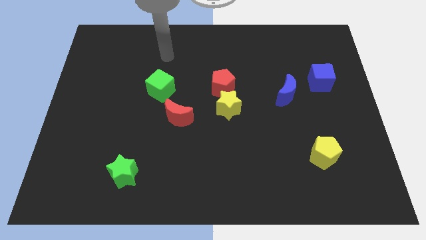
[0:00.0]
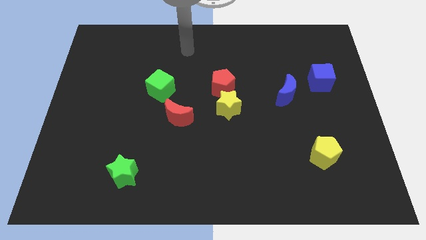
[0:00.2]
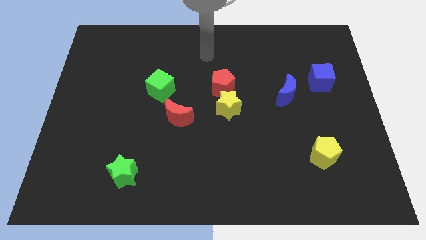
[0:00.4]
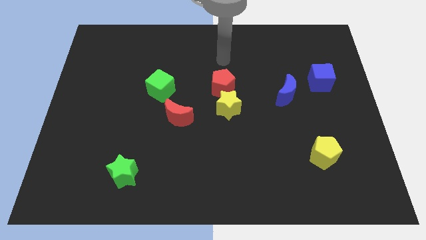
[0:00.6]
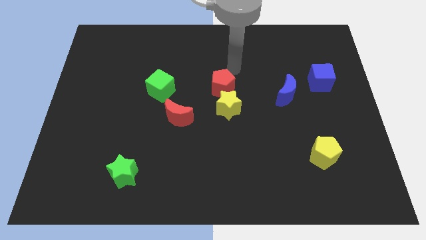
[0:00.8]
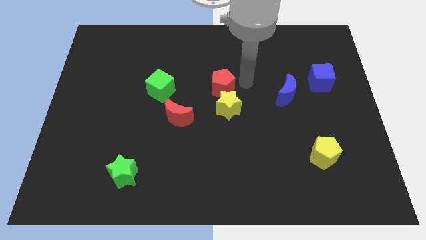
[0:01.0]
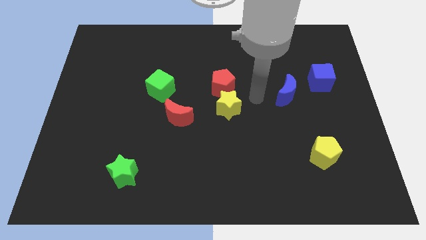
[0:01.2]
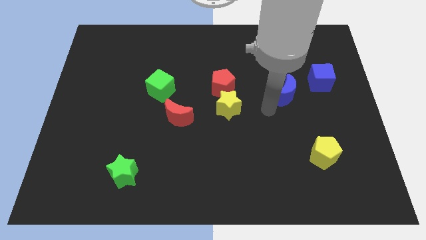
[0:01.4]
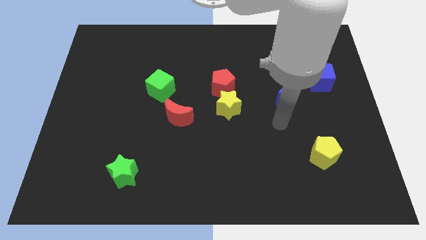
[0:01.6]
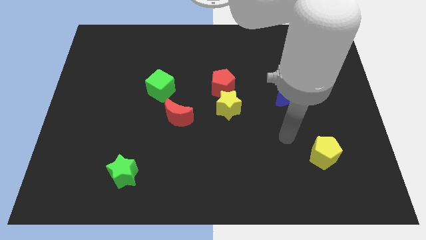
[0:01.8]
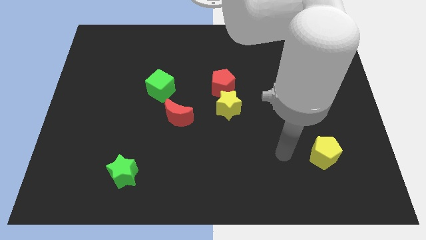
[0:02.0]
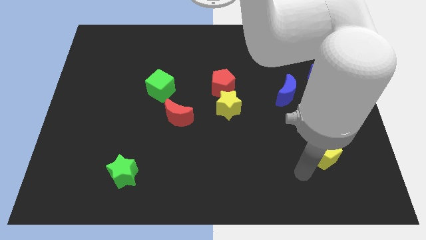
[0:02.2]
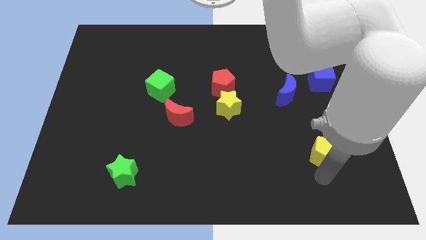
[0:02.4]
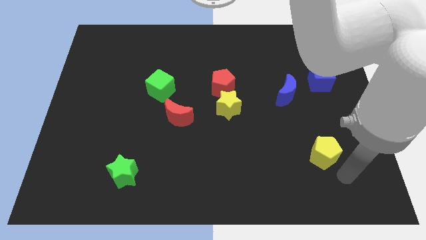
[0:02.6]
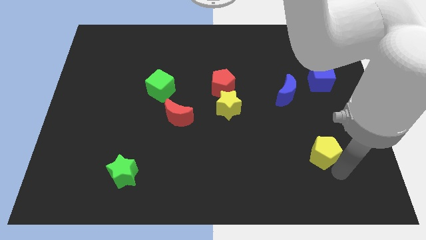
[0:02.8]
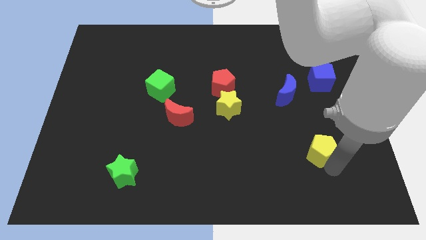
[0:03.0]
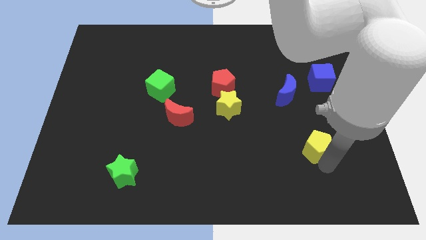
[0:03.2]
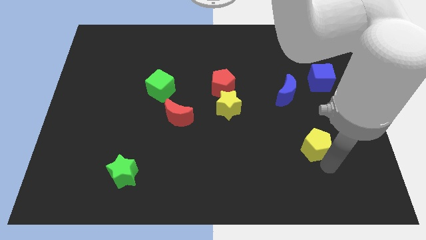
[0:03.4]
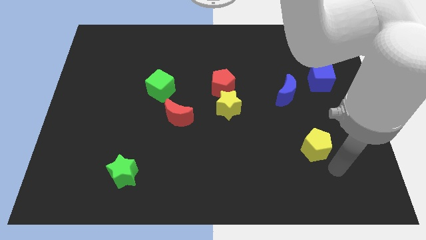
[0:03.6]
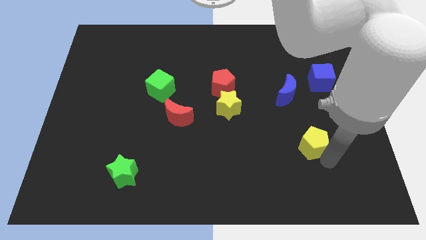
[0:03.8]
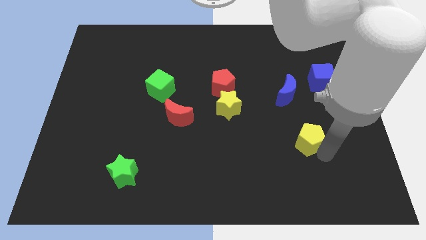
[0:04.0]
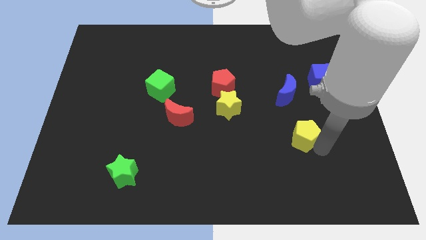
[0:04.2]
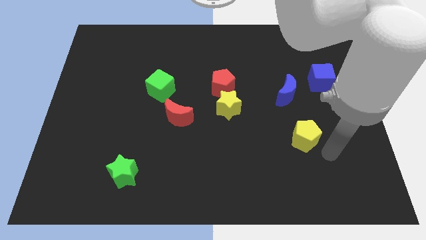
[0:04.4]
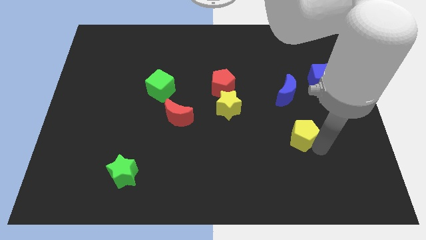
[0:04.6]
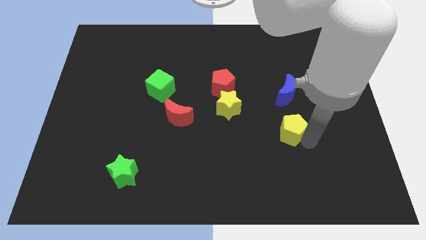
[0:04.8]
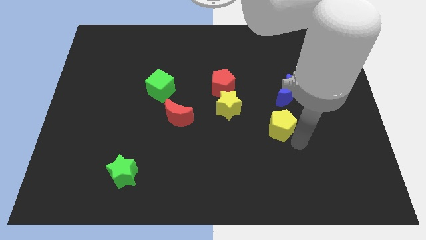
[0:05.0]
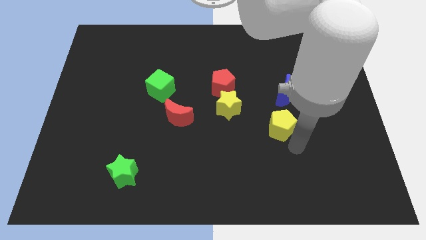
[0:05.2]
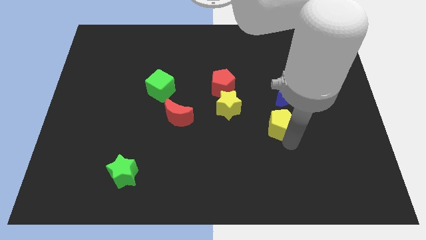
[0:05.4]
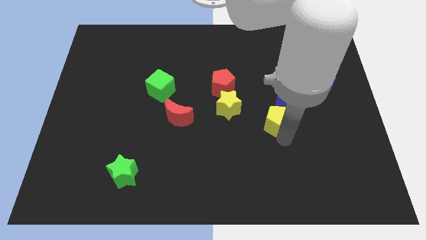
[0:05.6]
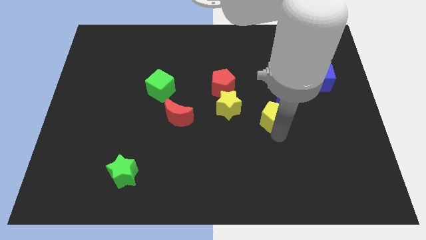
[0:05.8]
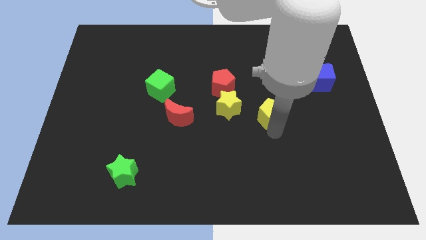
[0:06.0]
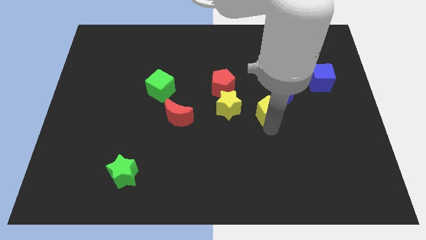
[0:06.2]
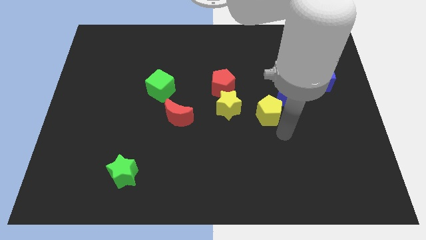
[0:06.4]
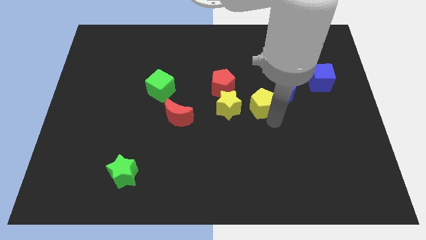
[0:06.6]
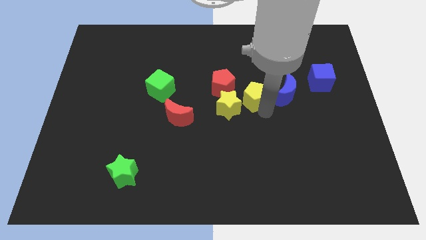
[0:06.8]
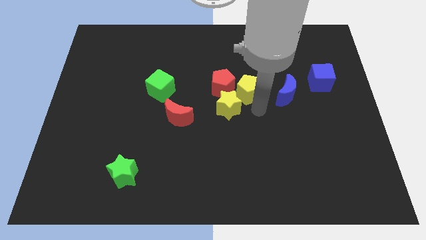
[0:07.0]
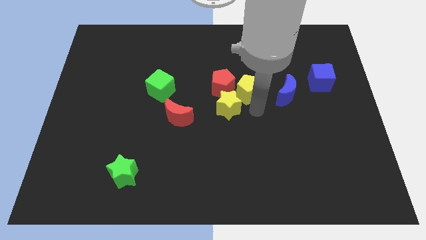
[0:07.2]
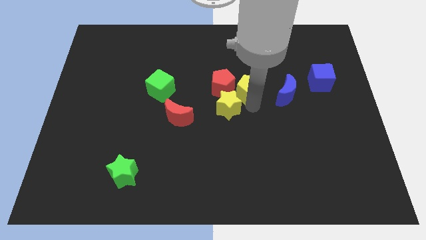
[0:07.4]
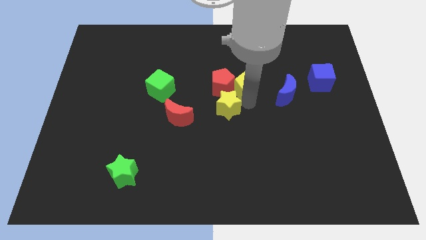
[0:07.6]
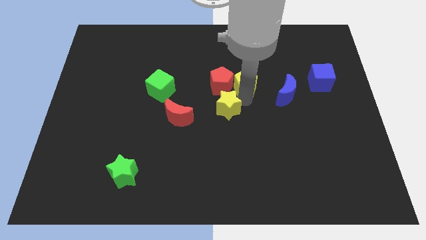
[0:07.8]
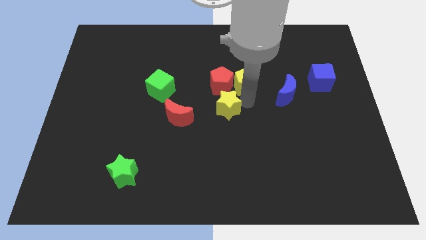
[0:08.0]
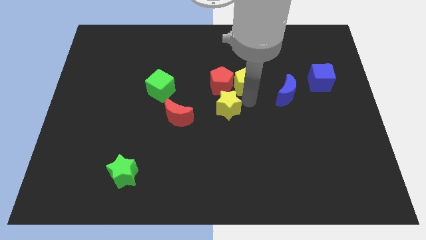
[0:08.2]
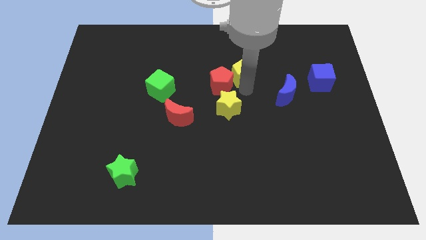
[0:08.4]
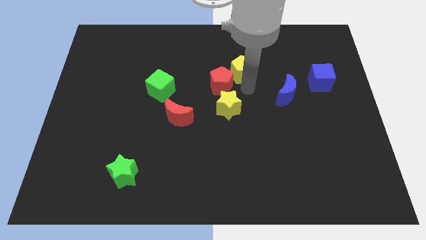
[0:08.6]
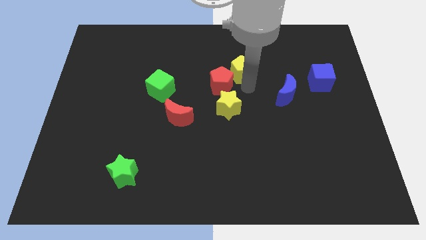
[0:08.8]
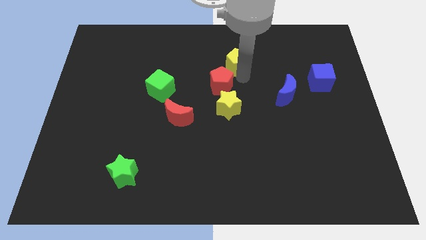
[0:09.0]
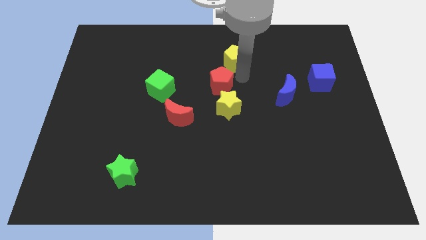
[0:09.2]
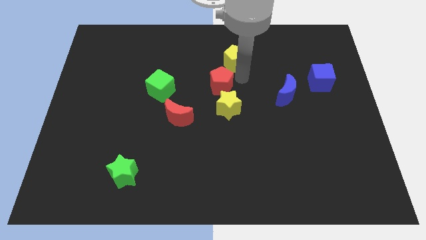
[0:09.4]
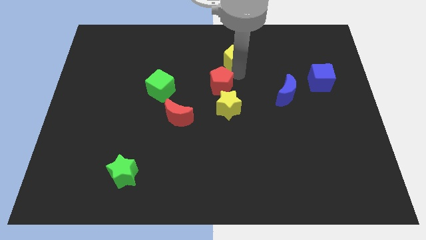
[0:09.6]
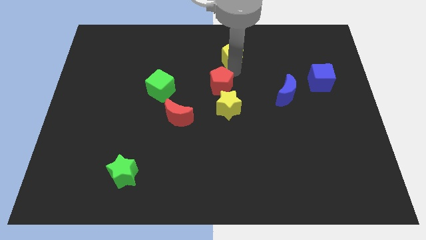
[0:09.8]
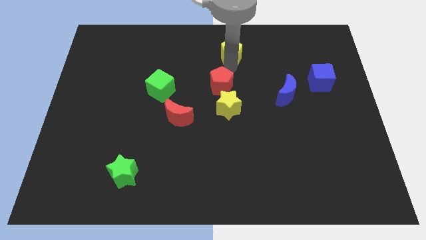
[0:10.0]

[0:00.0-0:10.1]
move the yellow pentagon to the top side

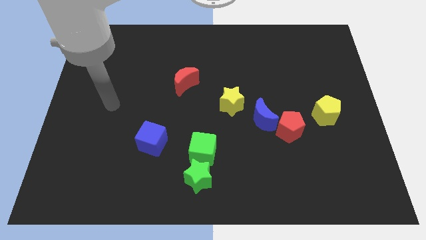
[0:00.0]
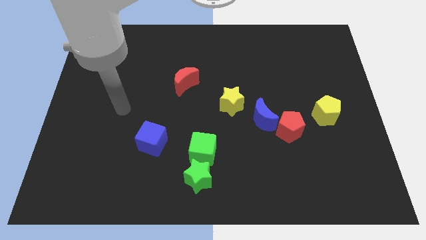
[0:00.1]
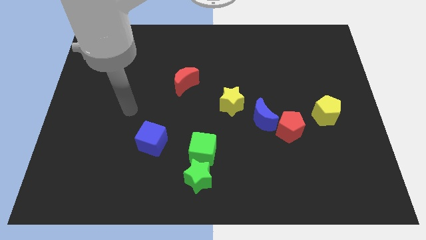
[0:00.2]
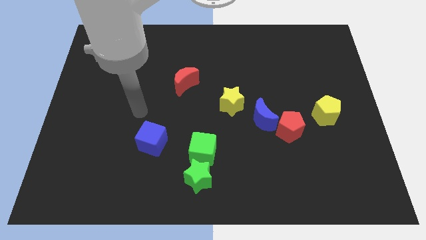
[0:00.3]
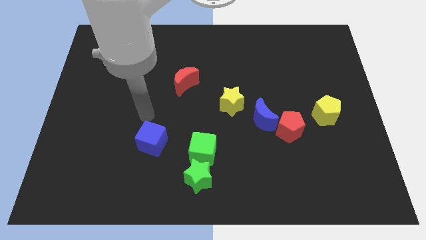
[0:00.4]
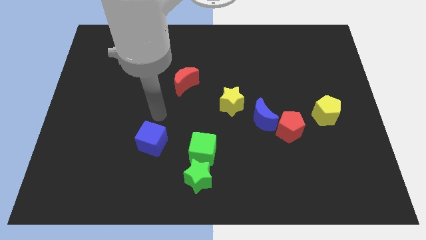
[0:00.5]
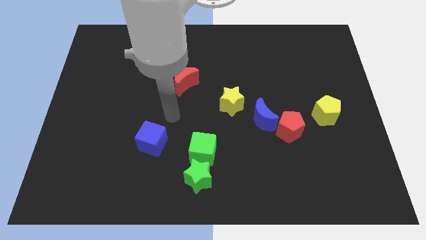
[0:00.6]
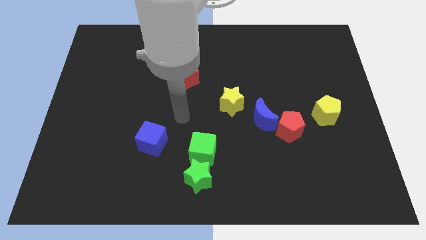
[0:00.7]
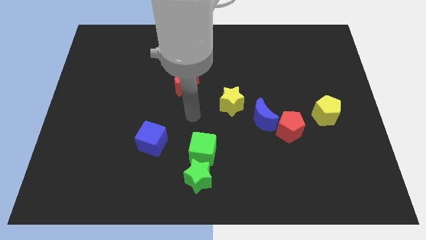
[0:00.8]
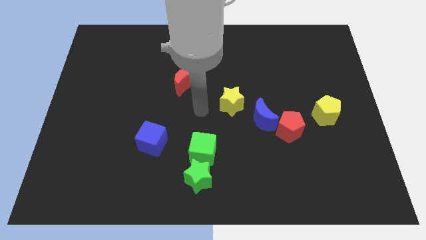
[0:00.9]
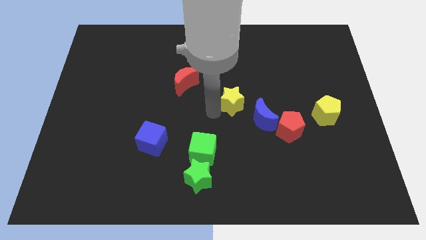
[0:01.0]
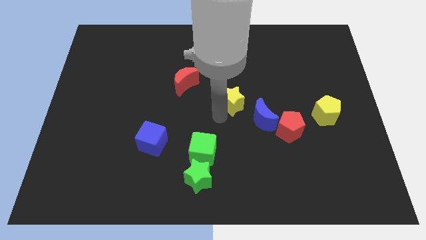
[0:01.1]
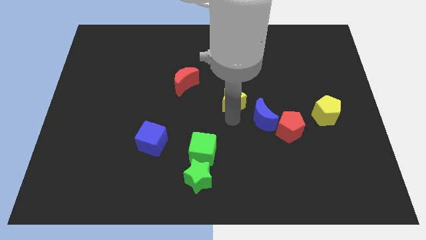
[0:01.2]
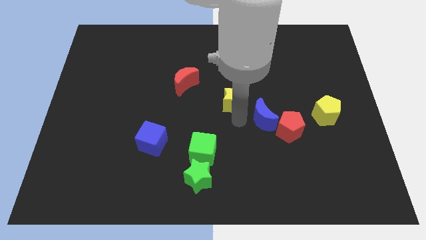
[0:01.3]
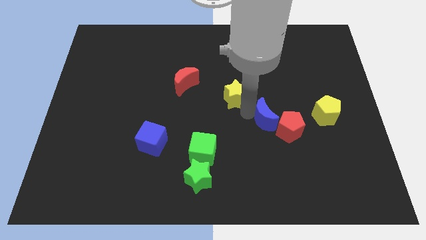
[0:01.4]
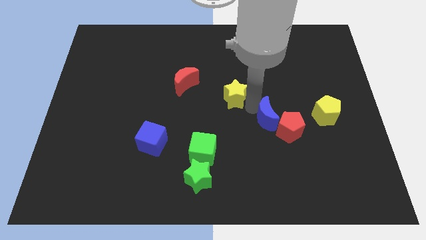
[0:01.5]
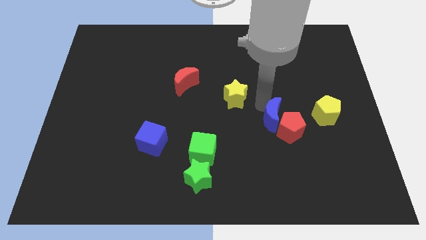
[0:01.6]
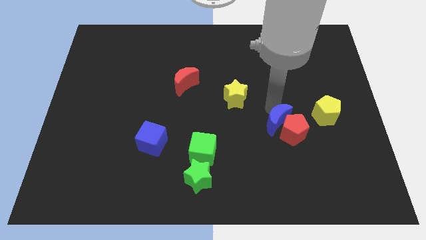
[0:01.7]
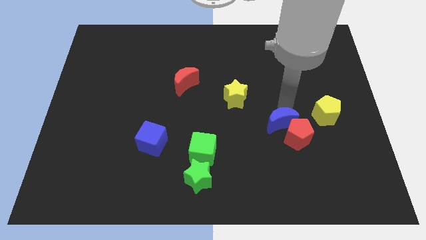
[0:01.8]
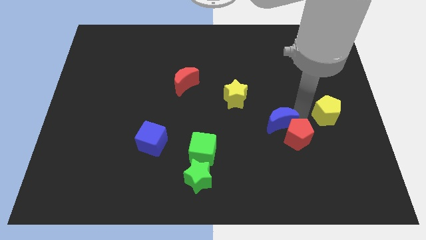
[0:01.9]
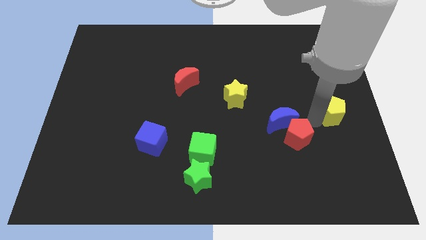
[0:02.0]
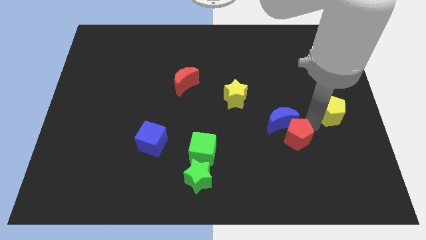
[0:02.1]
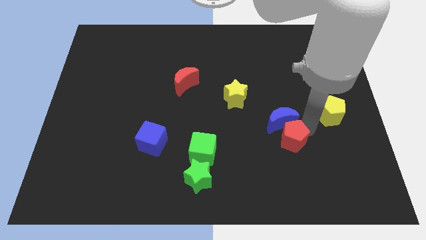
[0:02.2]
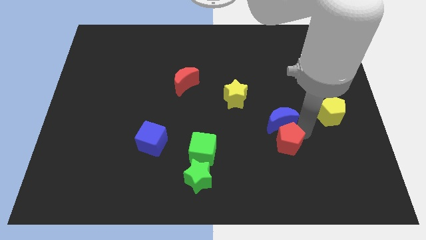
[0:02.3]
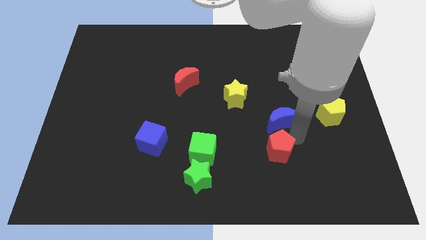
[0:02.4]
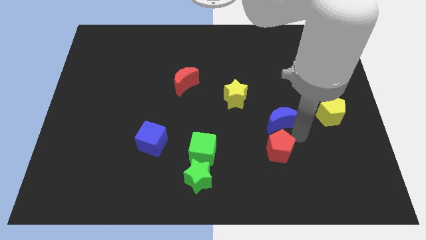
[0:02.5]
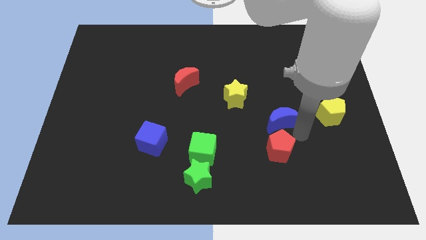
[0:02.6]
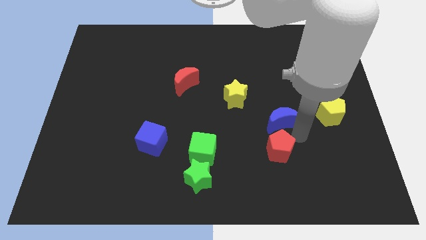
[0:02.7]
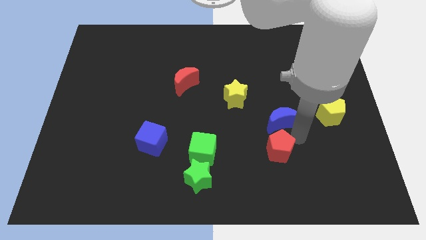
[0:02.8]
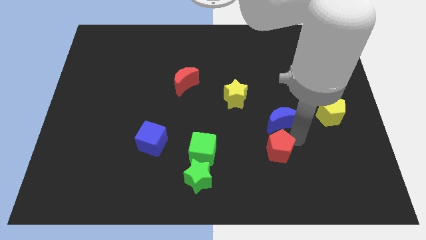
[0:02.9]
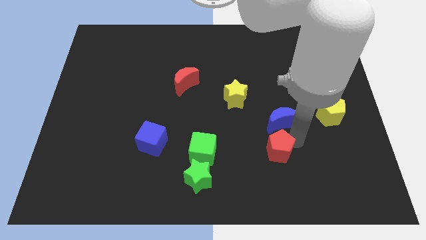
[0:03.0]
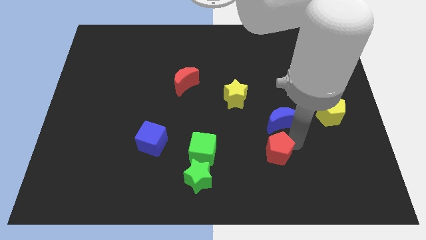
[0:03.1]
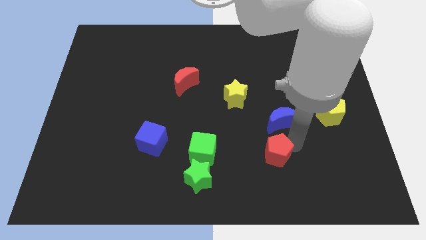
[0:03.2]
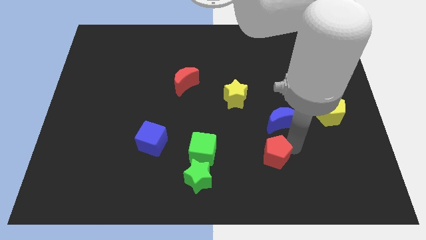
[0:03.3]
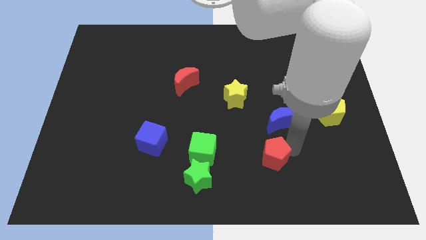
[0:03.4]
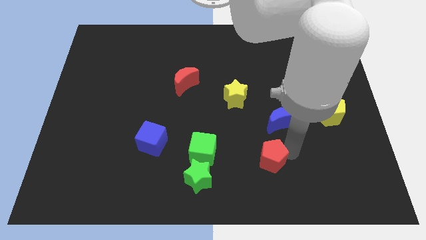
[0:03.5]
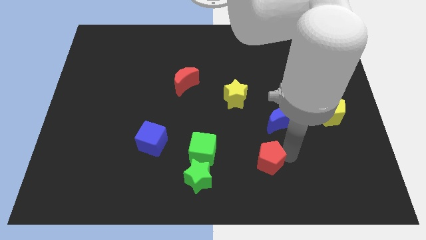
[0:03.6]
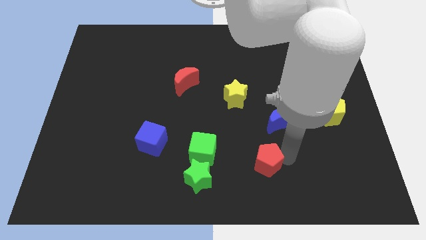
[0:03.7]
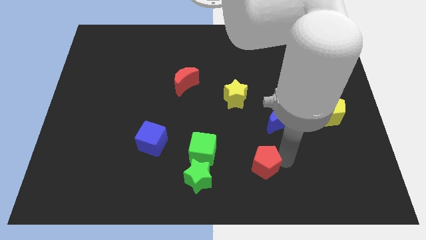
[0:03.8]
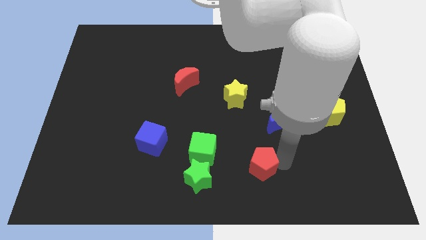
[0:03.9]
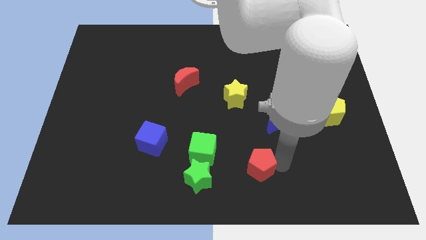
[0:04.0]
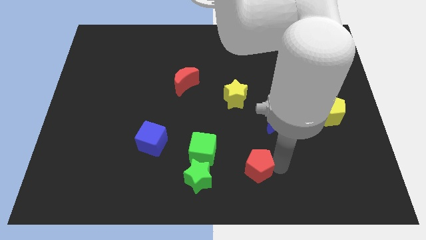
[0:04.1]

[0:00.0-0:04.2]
push the red pentagon to the bottom side
